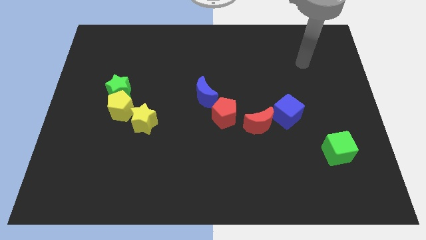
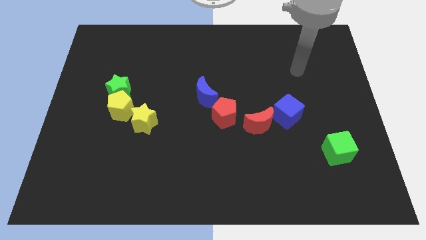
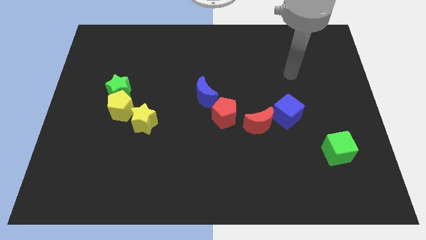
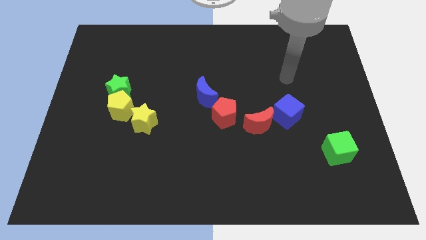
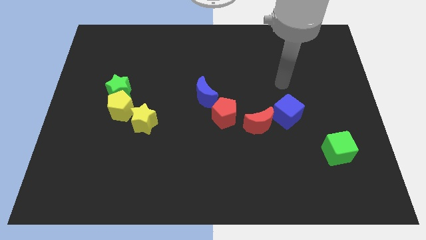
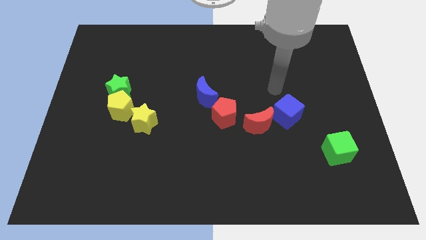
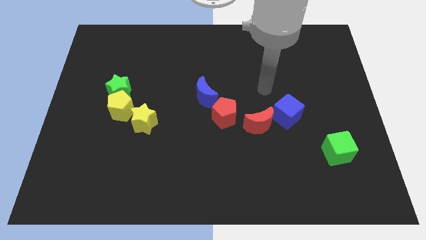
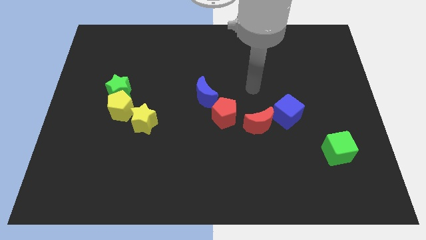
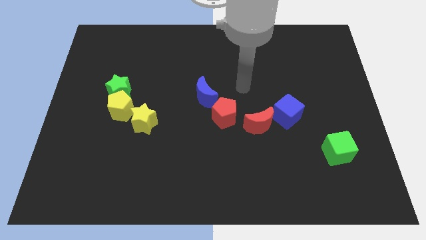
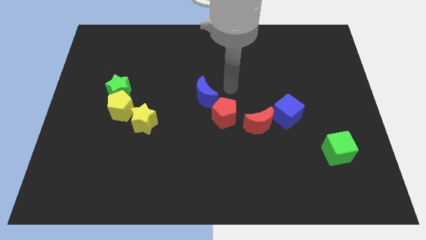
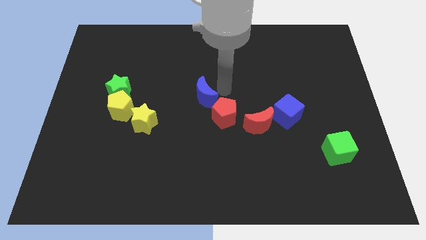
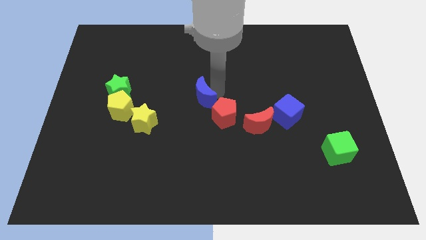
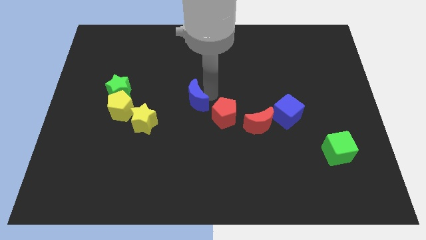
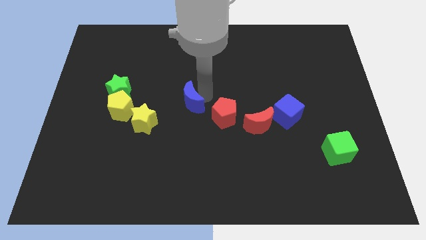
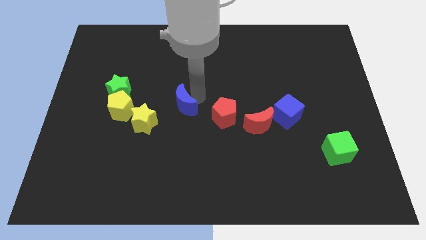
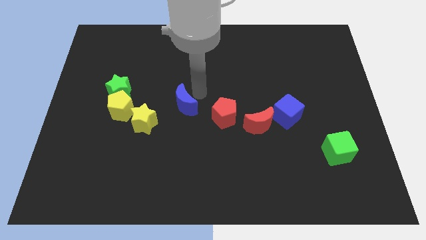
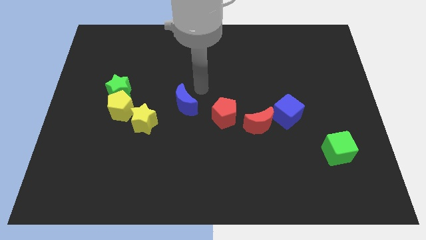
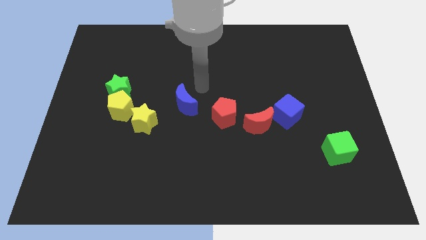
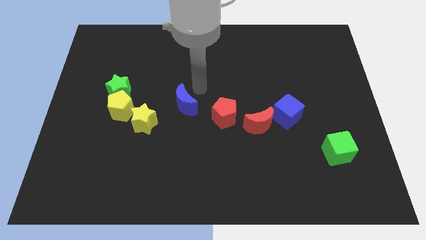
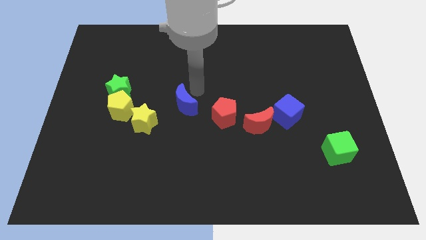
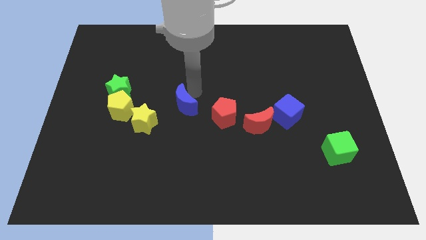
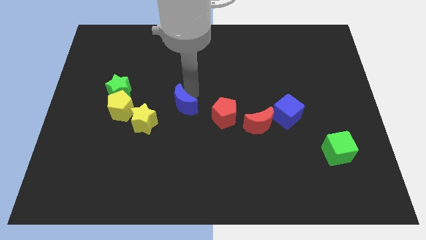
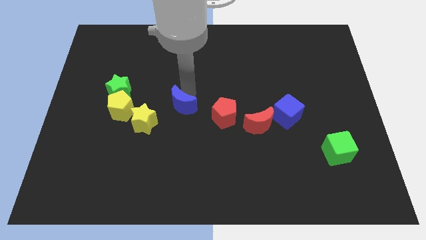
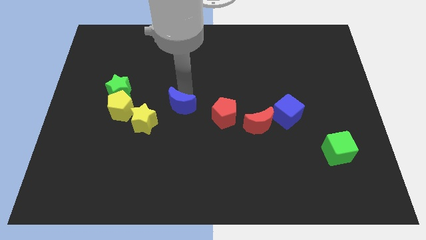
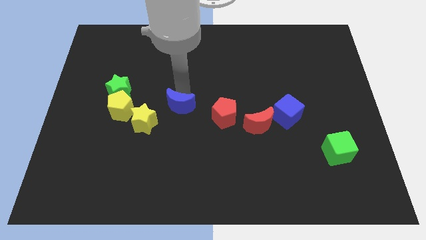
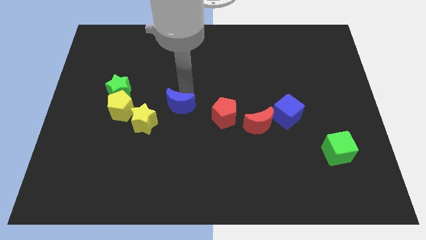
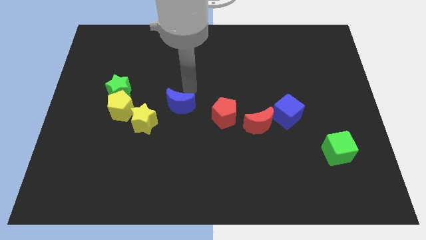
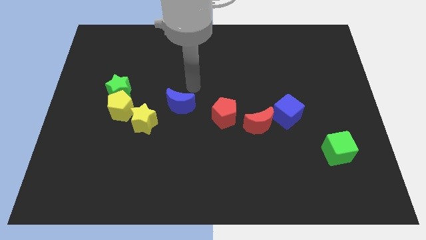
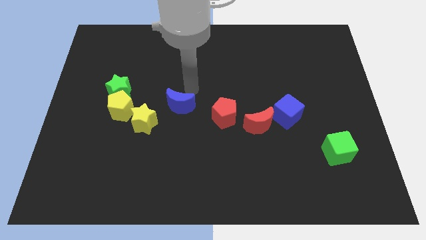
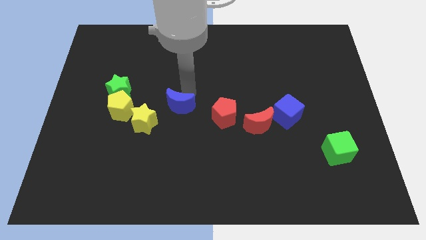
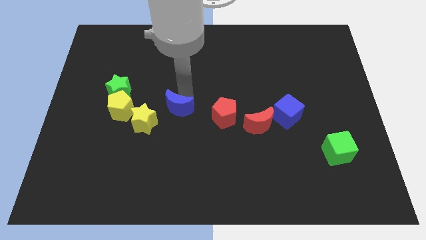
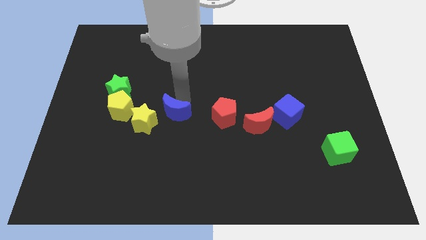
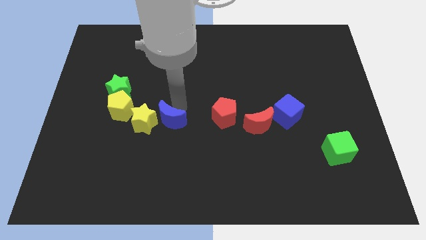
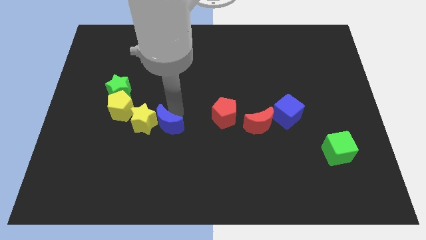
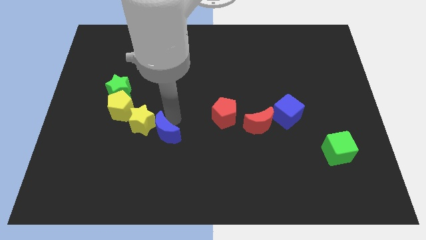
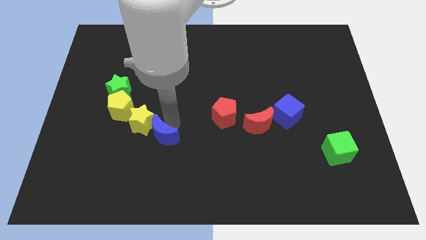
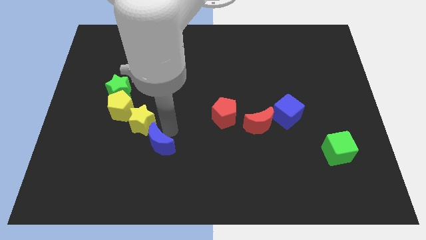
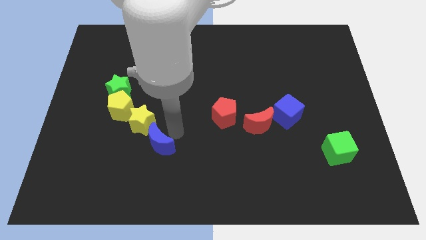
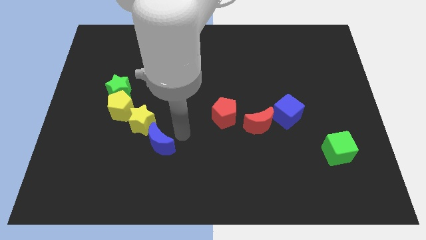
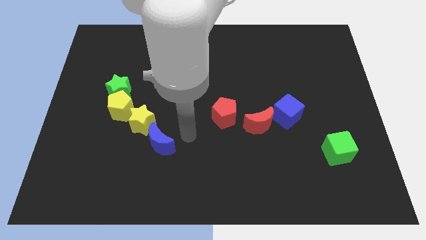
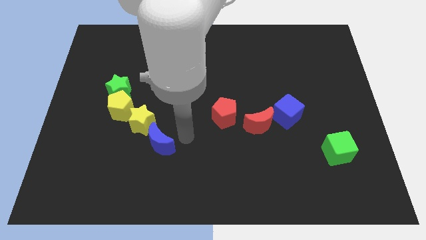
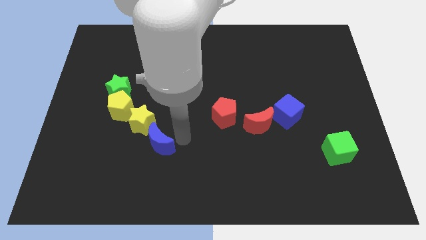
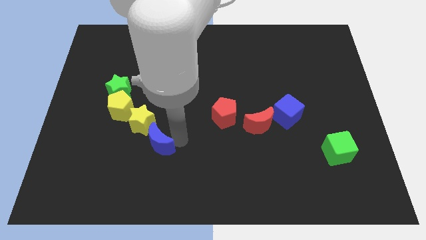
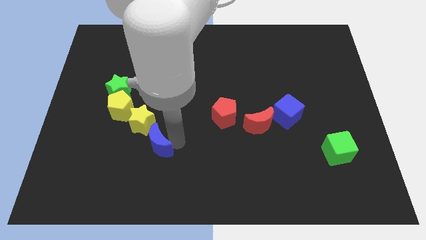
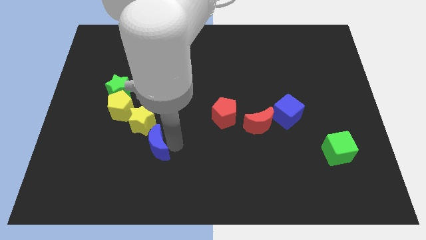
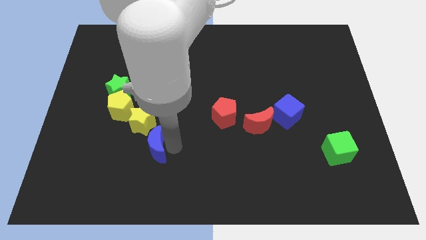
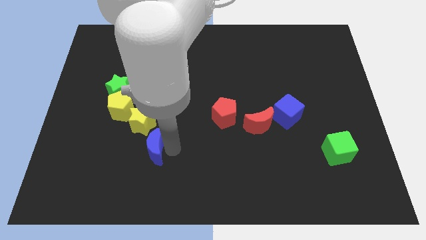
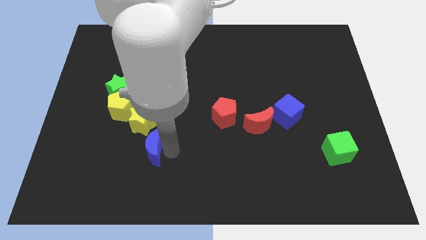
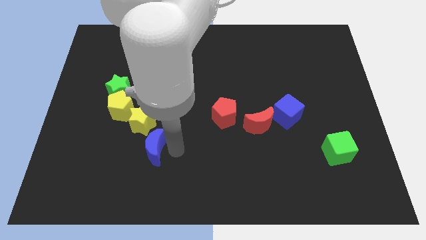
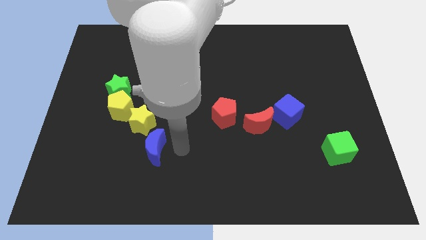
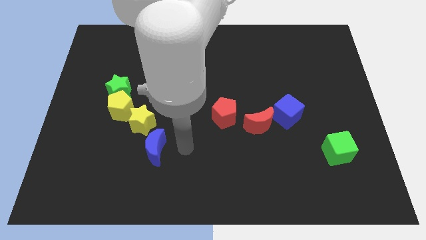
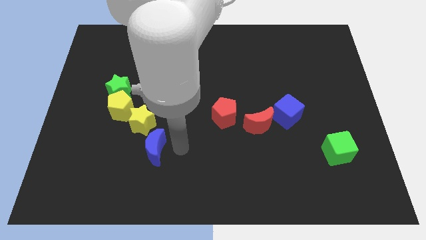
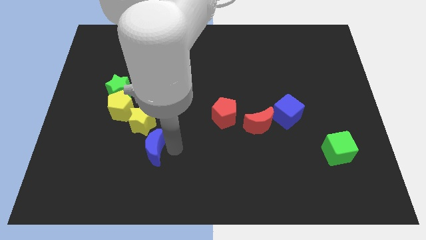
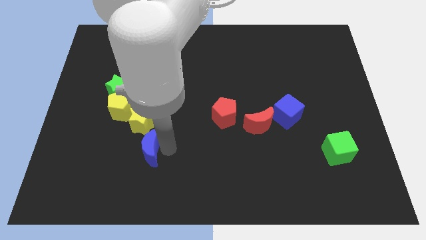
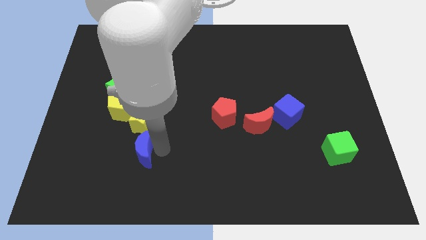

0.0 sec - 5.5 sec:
push the blue moon downwards and left diagonally

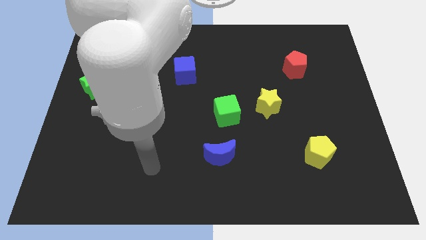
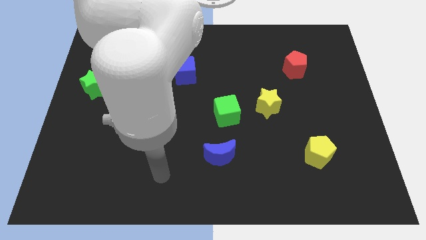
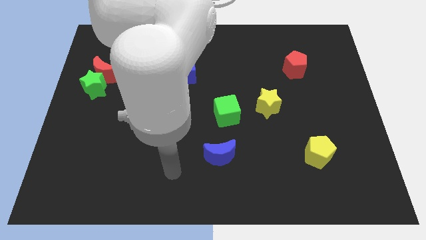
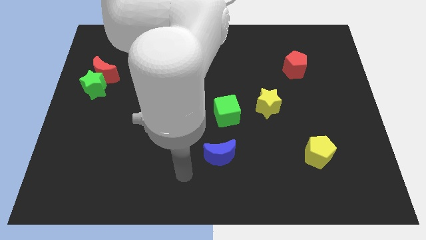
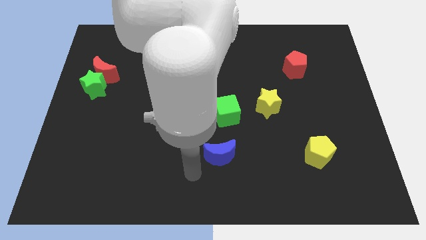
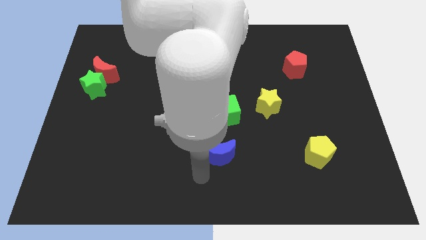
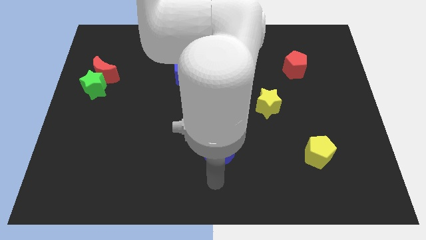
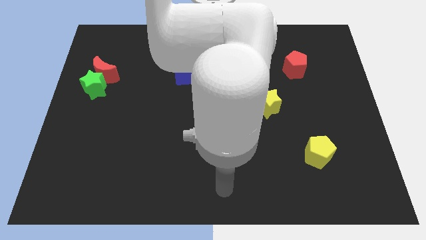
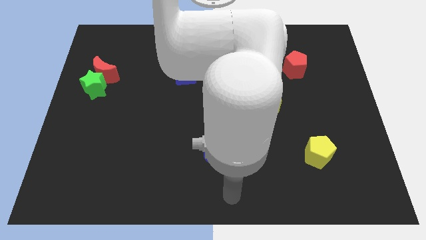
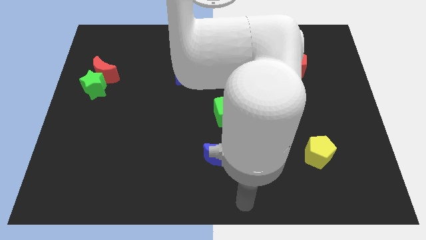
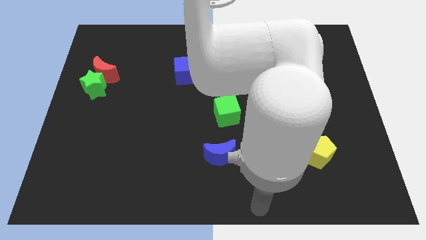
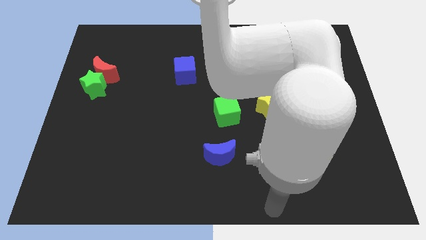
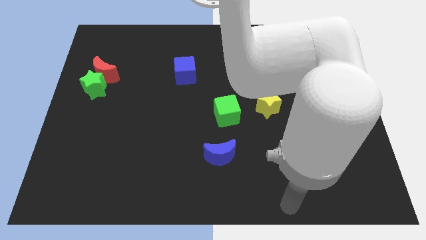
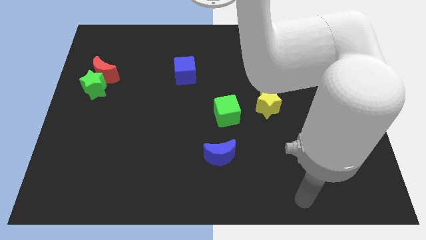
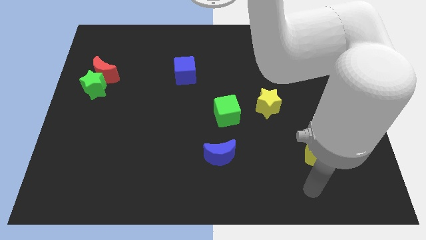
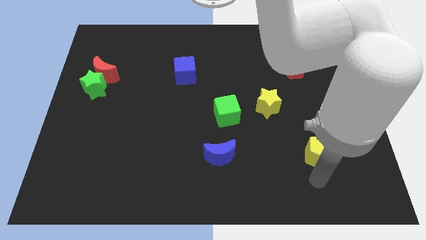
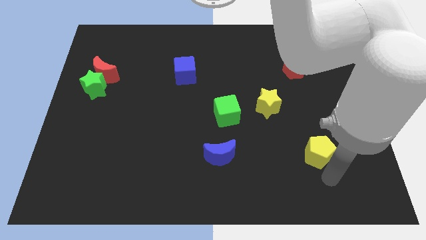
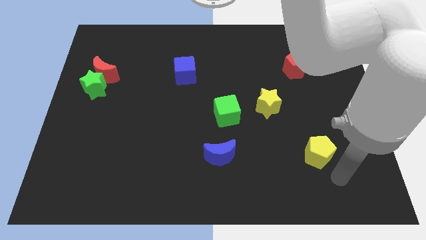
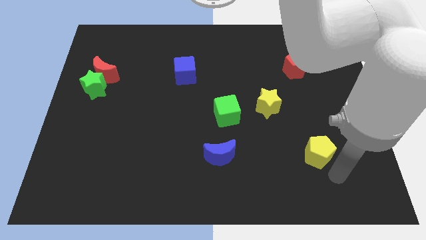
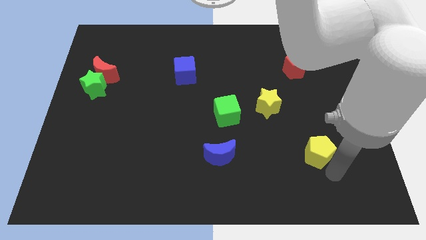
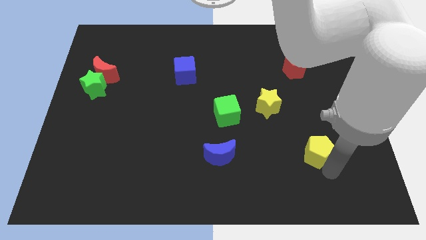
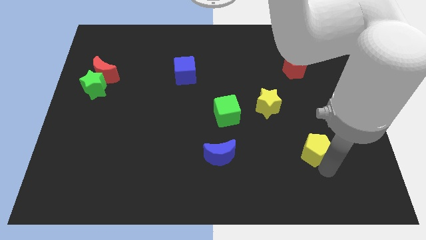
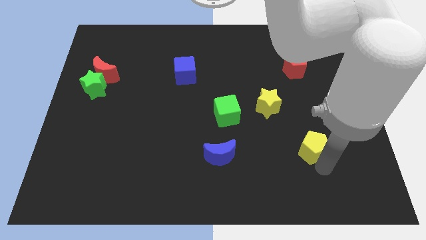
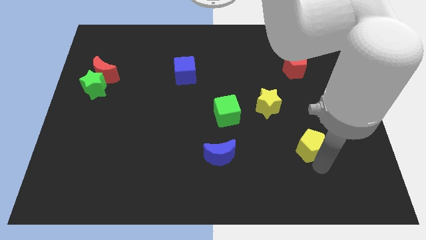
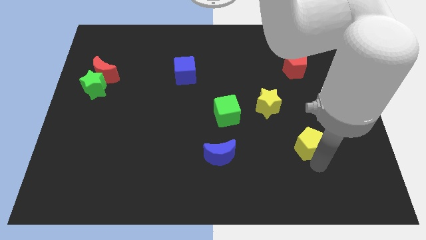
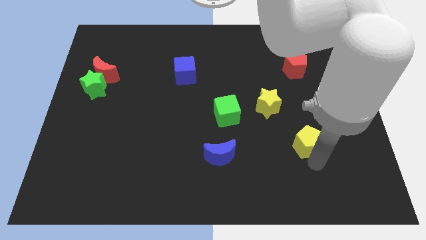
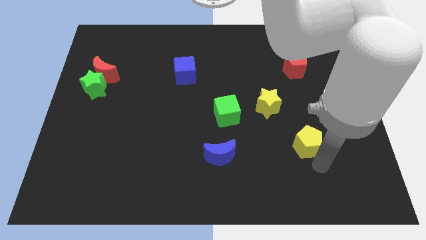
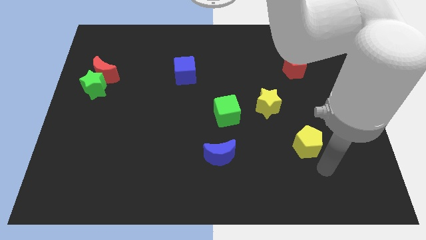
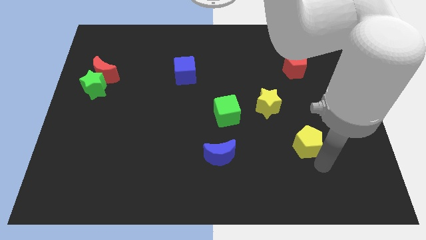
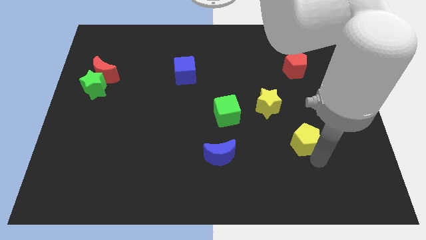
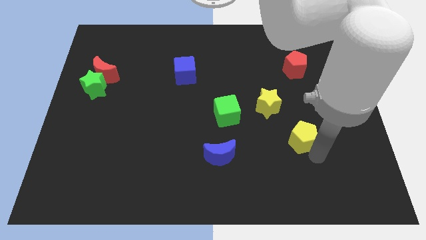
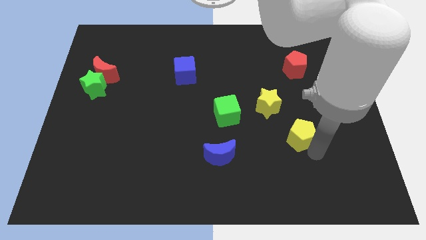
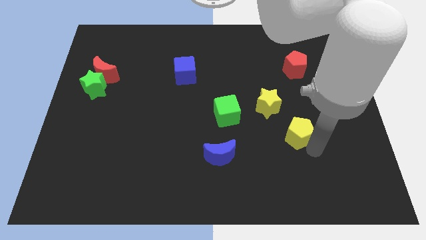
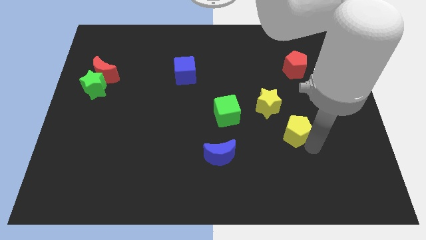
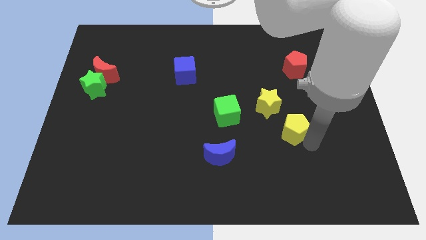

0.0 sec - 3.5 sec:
slightly push the yellow pentagon upwards and to the left diagonally
